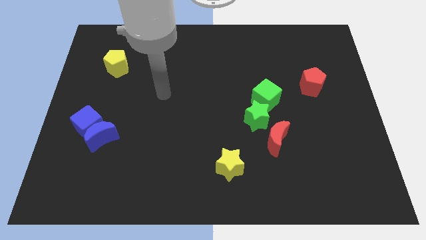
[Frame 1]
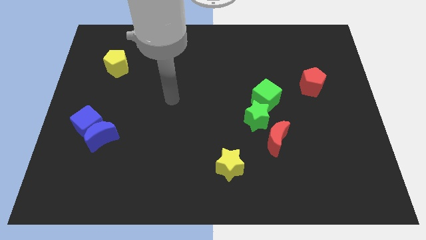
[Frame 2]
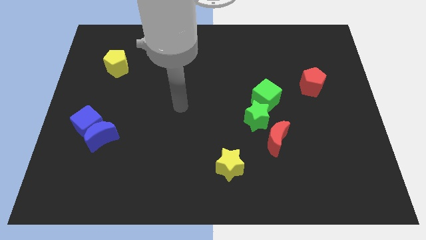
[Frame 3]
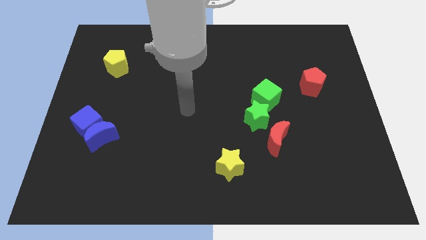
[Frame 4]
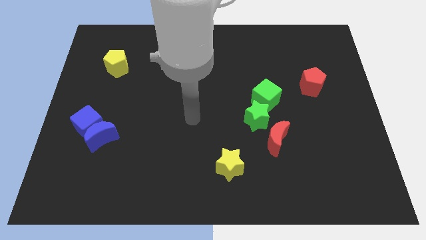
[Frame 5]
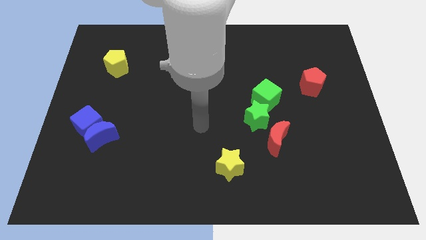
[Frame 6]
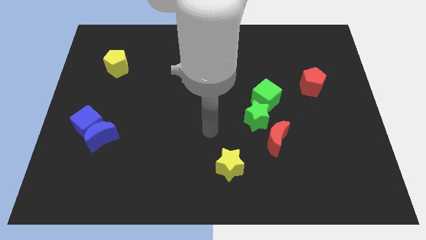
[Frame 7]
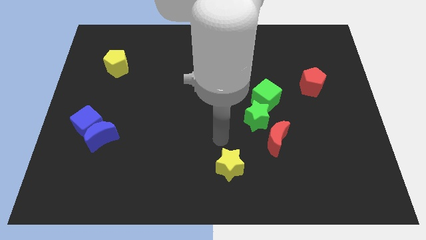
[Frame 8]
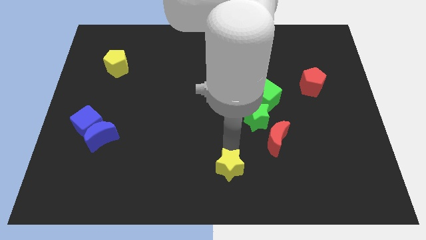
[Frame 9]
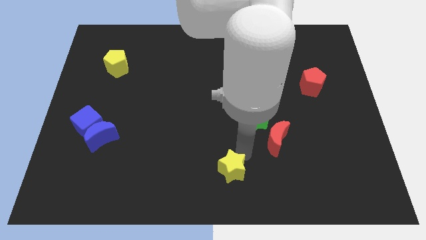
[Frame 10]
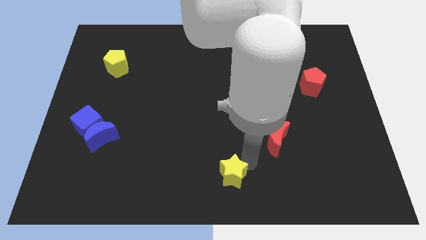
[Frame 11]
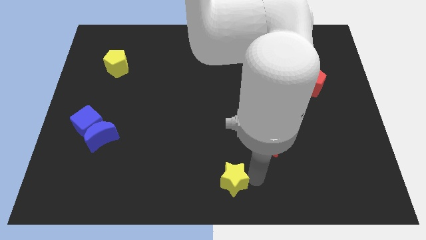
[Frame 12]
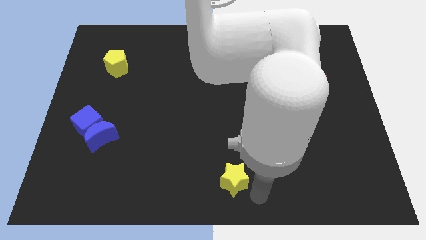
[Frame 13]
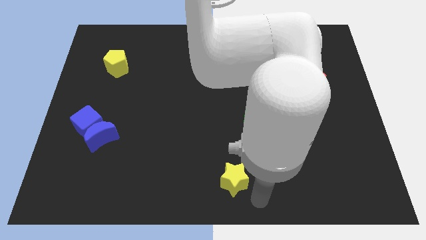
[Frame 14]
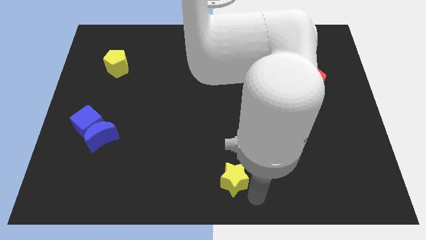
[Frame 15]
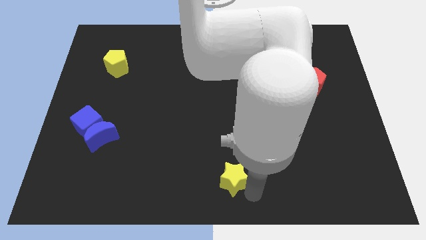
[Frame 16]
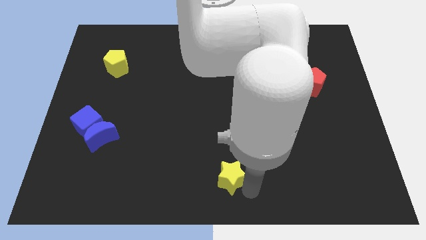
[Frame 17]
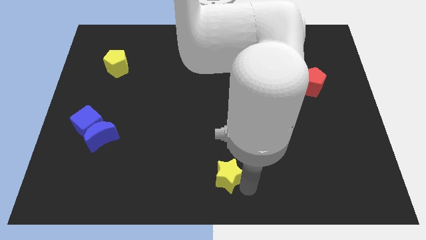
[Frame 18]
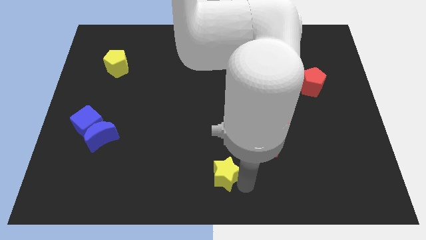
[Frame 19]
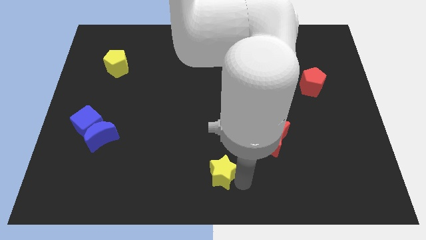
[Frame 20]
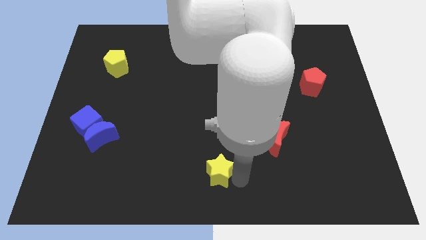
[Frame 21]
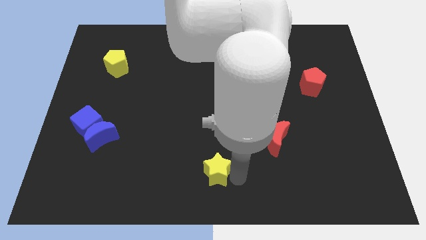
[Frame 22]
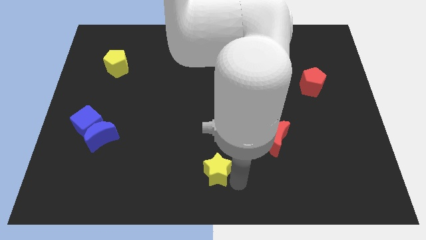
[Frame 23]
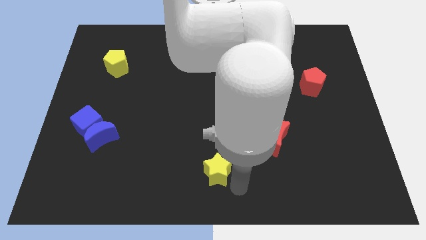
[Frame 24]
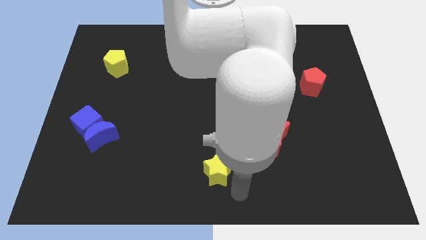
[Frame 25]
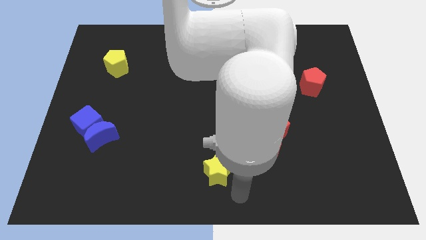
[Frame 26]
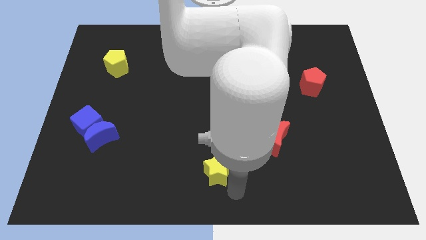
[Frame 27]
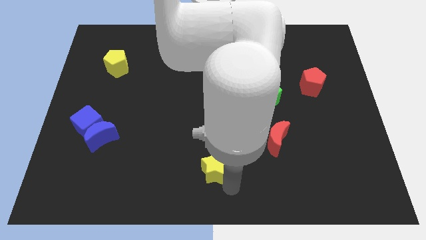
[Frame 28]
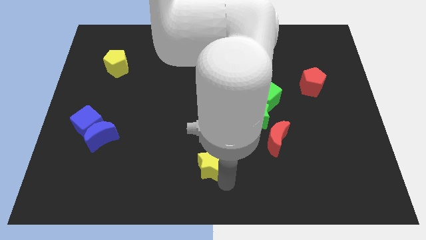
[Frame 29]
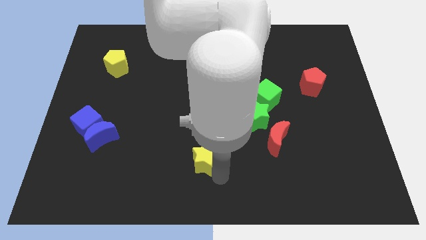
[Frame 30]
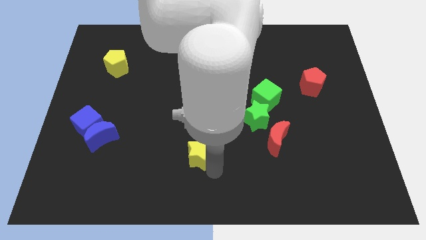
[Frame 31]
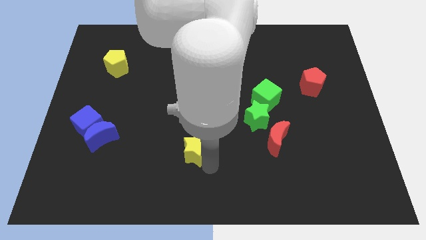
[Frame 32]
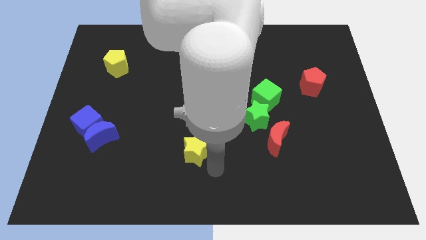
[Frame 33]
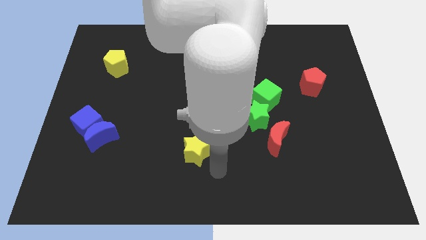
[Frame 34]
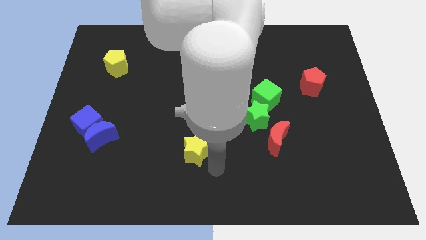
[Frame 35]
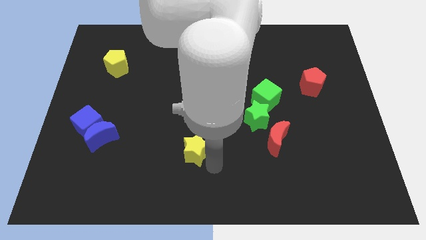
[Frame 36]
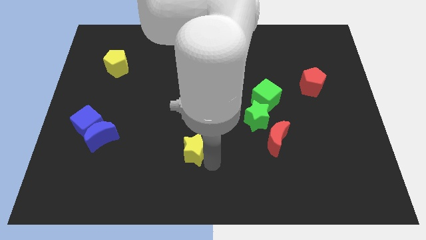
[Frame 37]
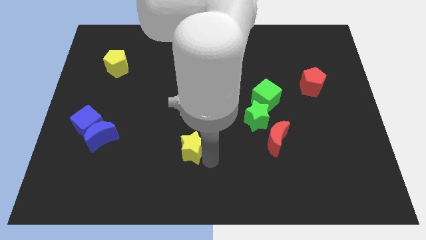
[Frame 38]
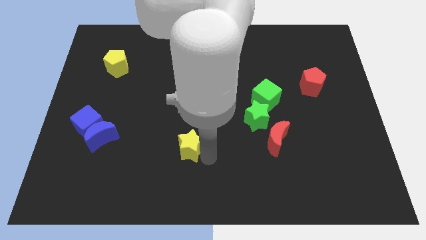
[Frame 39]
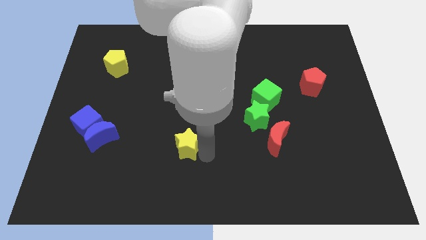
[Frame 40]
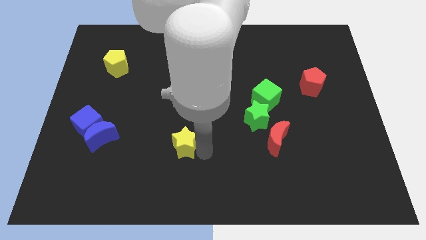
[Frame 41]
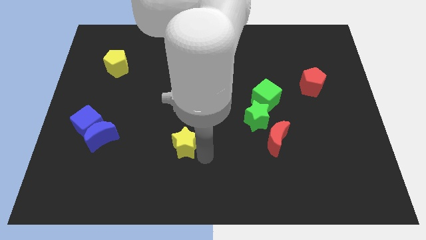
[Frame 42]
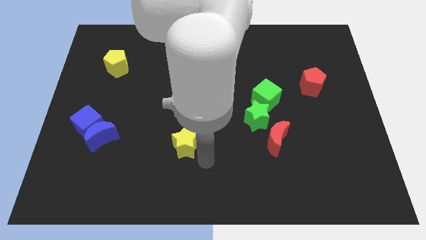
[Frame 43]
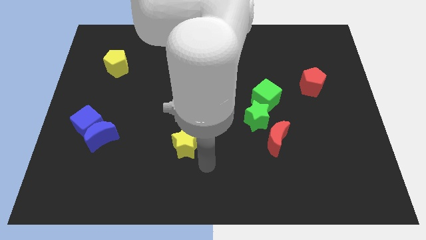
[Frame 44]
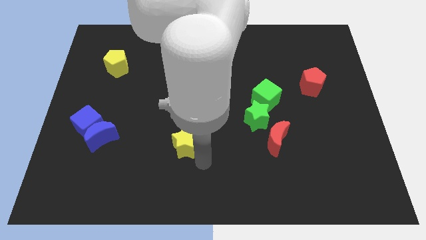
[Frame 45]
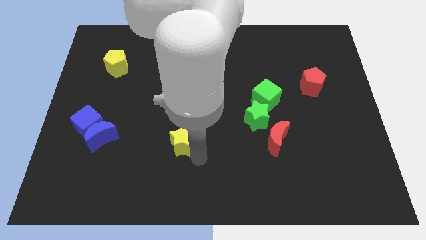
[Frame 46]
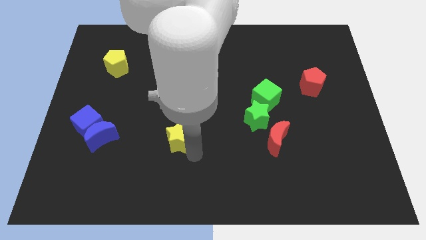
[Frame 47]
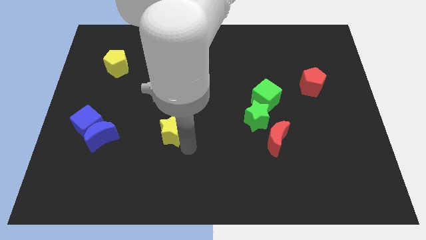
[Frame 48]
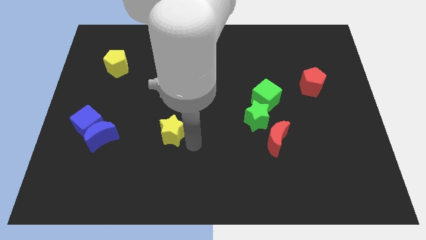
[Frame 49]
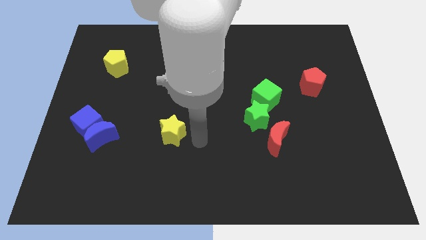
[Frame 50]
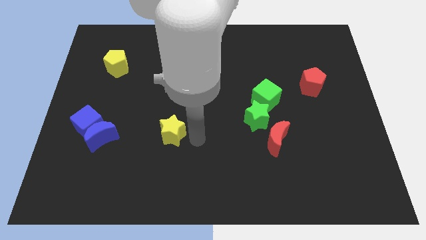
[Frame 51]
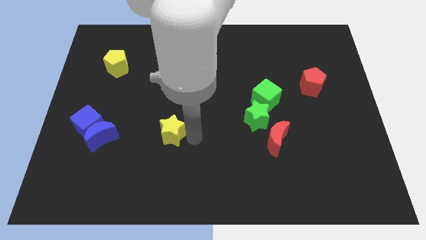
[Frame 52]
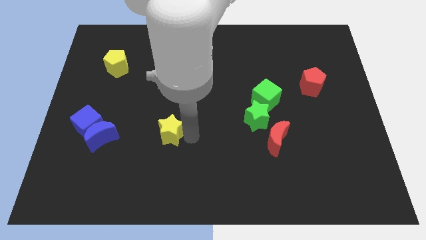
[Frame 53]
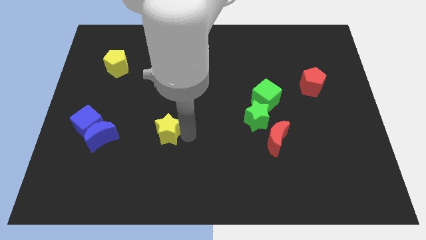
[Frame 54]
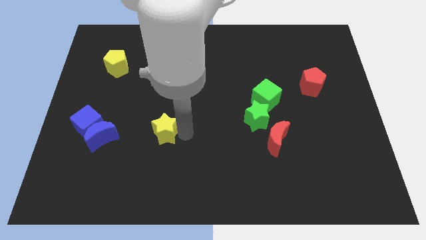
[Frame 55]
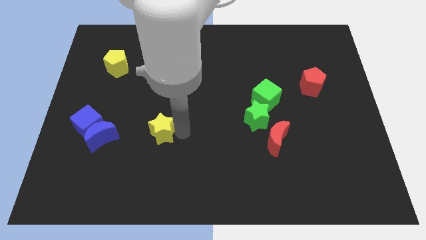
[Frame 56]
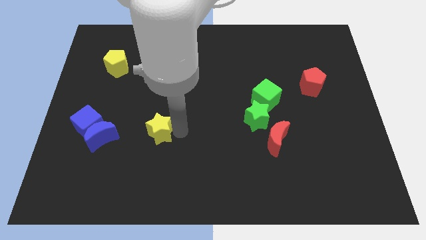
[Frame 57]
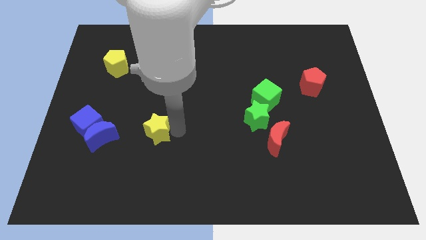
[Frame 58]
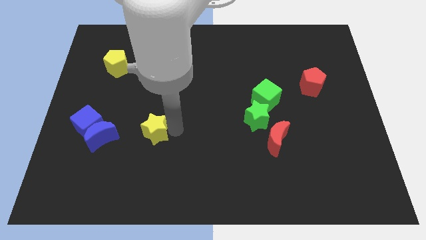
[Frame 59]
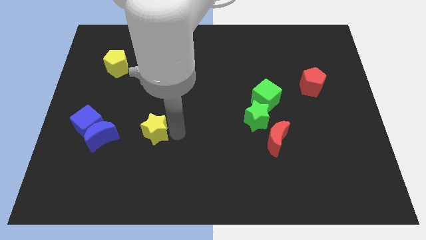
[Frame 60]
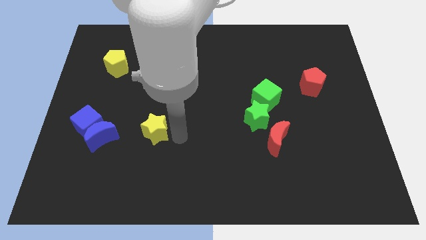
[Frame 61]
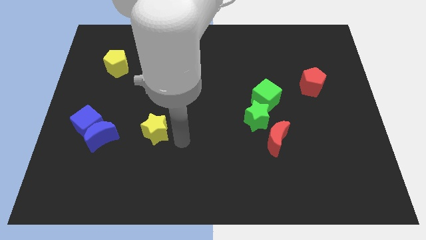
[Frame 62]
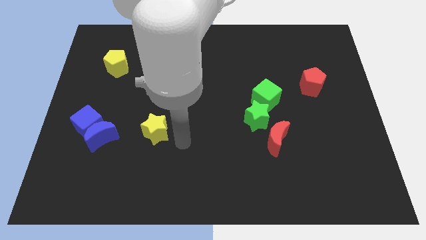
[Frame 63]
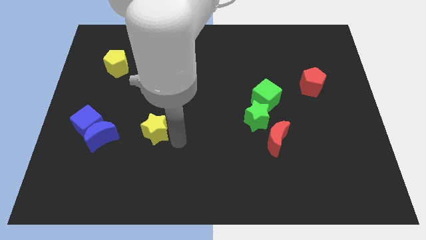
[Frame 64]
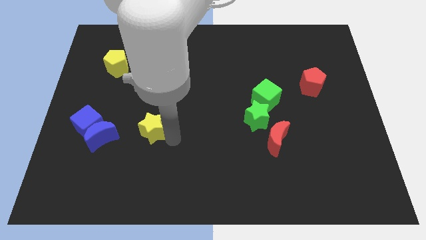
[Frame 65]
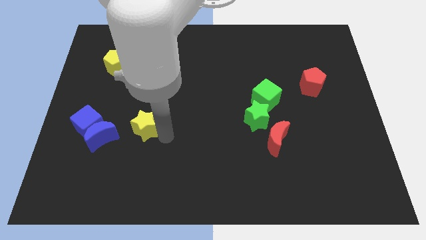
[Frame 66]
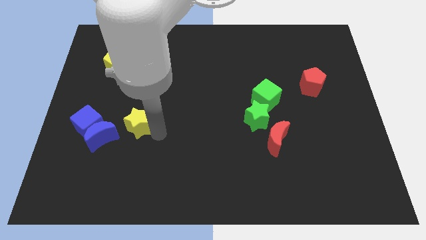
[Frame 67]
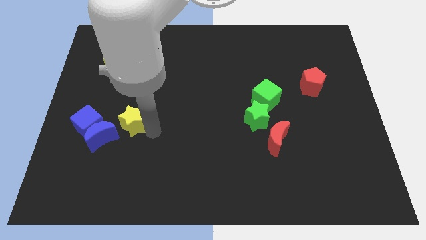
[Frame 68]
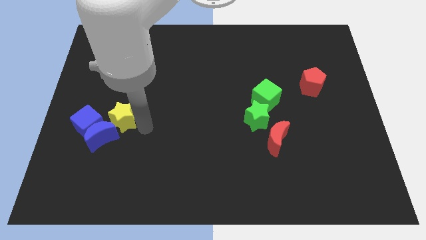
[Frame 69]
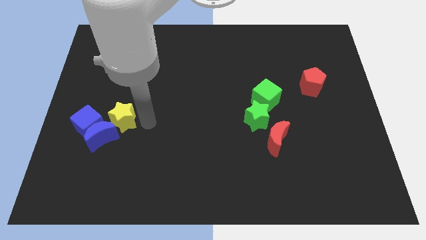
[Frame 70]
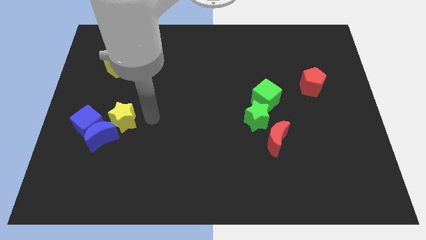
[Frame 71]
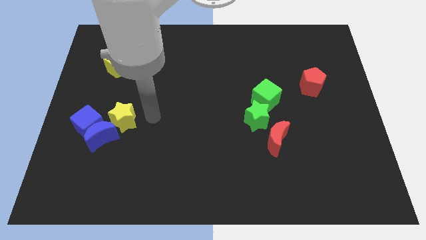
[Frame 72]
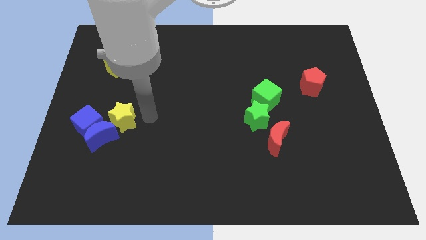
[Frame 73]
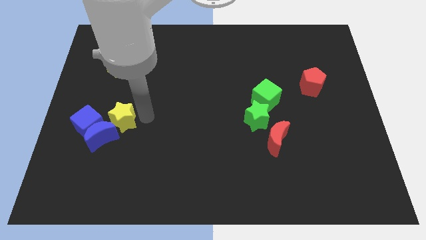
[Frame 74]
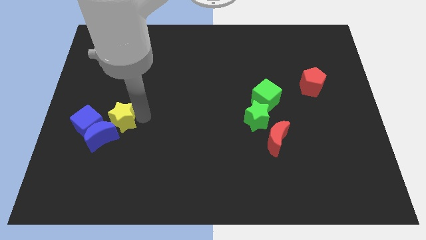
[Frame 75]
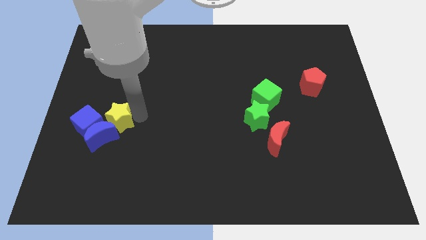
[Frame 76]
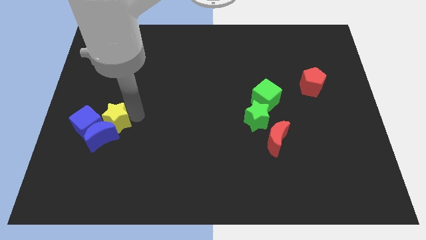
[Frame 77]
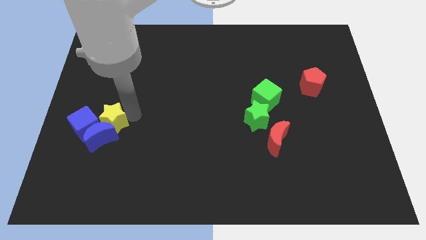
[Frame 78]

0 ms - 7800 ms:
put the yellow star close to the blue cube
